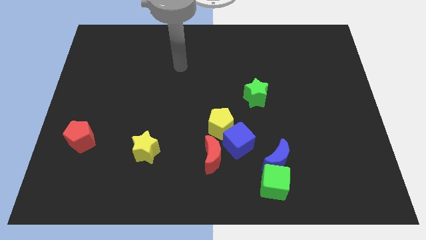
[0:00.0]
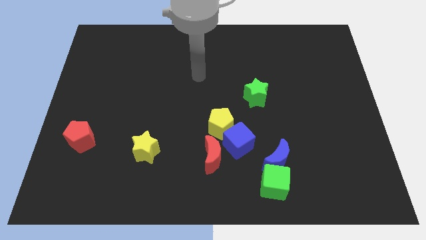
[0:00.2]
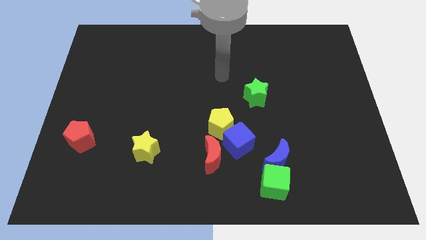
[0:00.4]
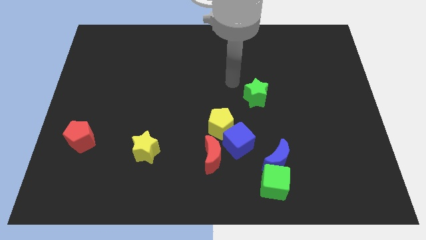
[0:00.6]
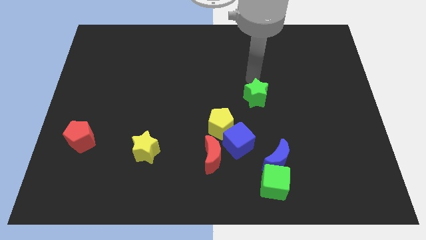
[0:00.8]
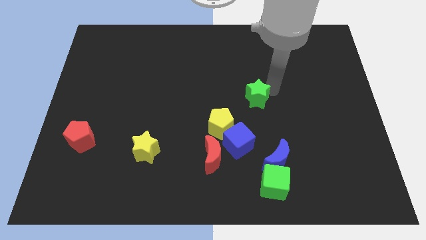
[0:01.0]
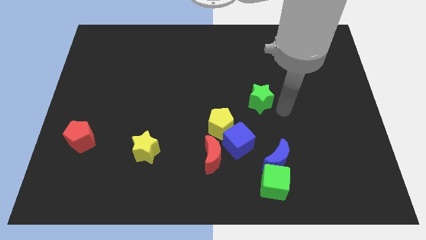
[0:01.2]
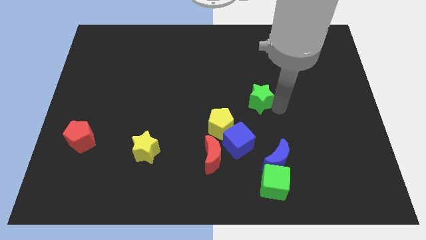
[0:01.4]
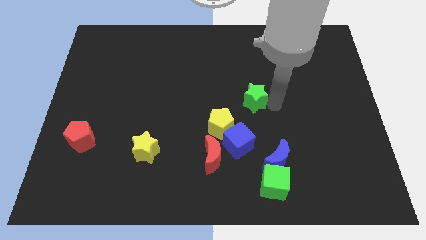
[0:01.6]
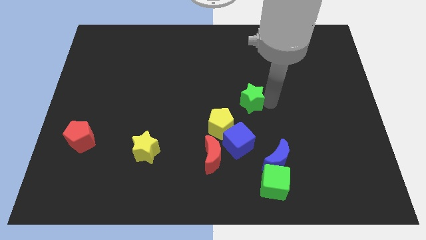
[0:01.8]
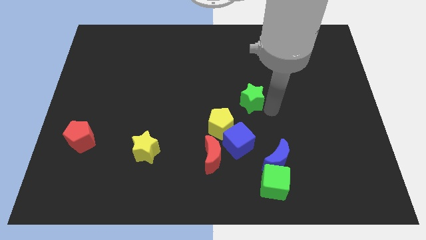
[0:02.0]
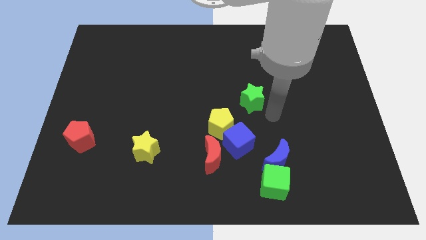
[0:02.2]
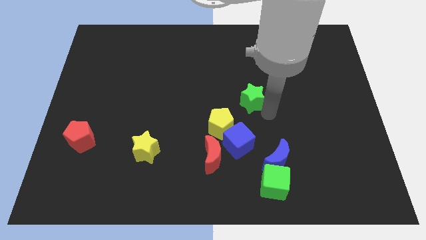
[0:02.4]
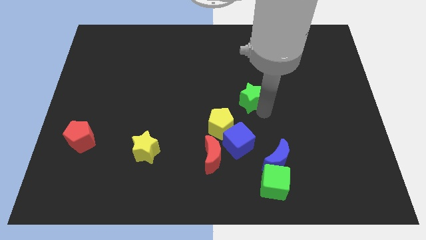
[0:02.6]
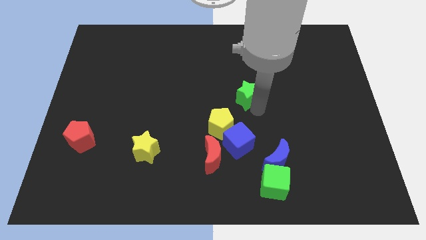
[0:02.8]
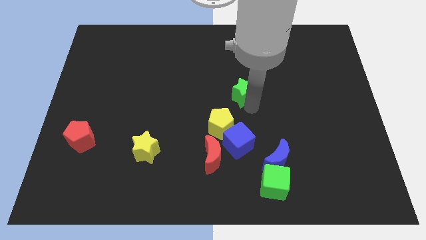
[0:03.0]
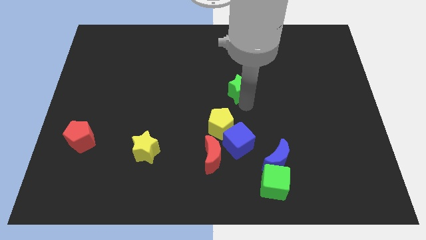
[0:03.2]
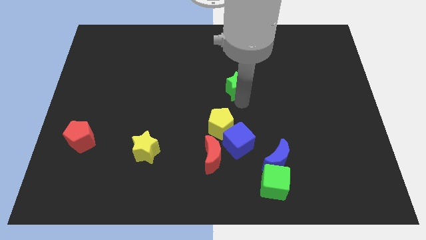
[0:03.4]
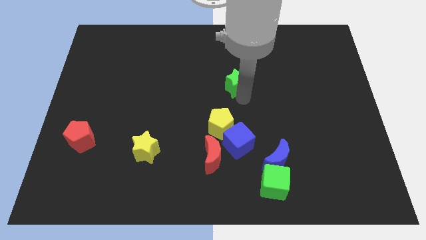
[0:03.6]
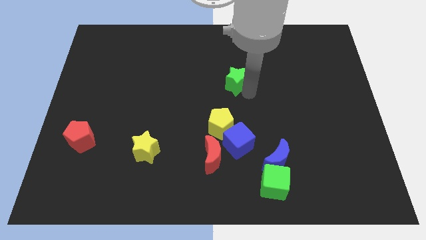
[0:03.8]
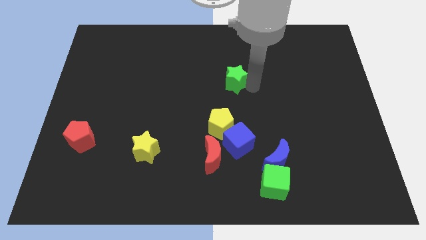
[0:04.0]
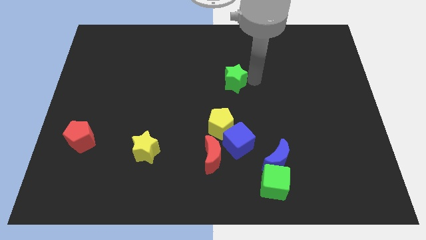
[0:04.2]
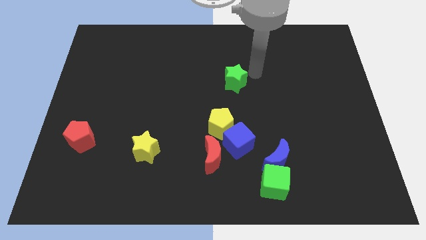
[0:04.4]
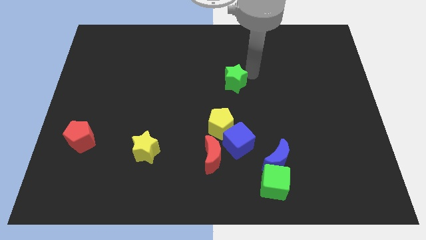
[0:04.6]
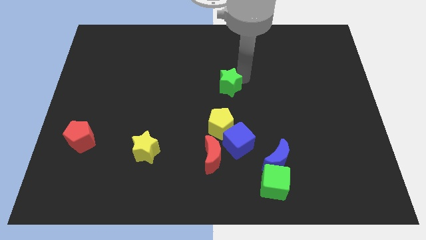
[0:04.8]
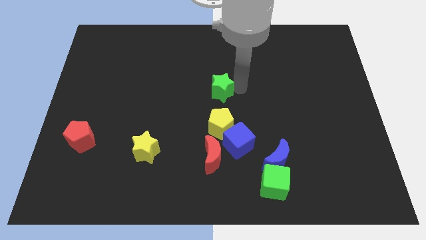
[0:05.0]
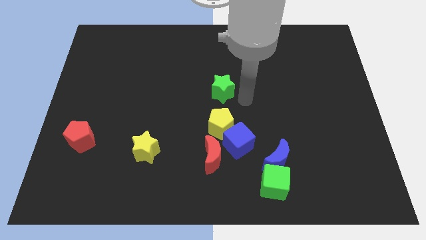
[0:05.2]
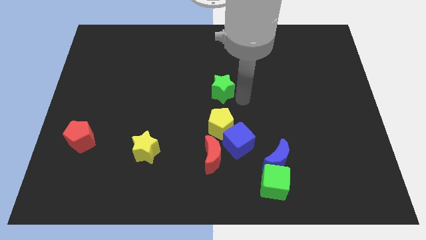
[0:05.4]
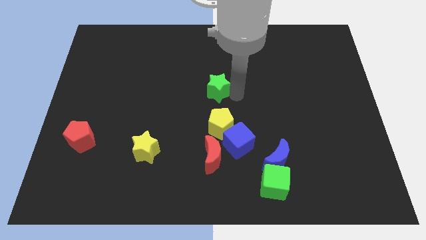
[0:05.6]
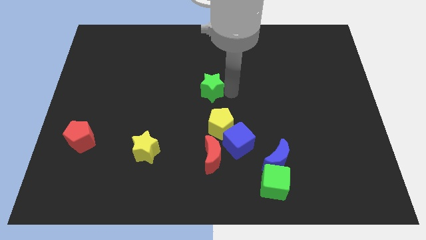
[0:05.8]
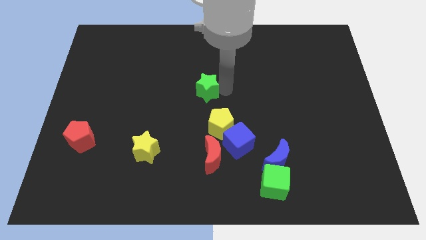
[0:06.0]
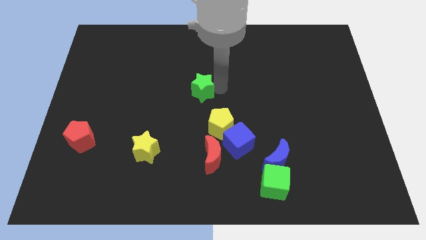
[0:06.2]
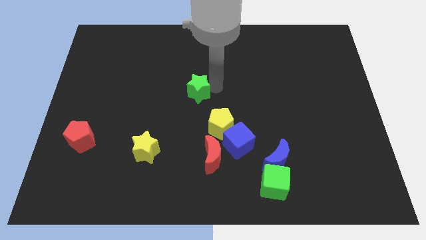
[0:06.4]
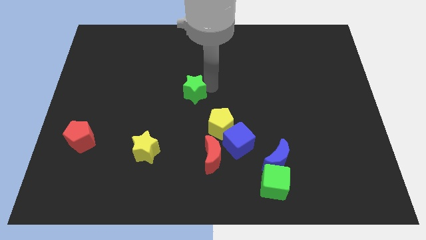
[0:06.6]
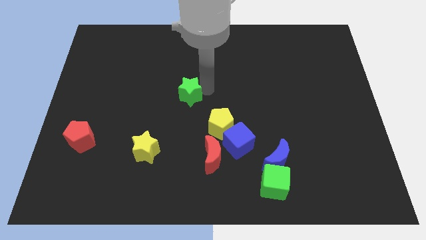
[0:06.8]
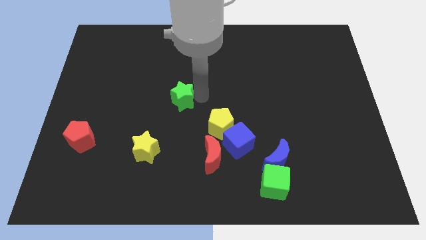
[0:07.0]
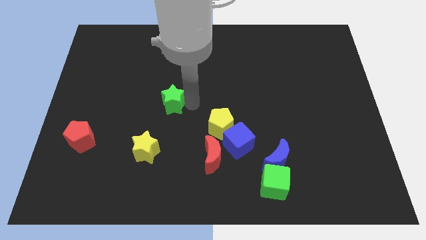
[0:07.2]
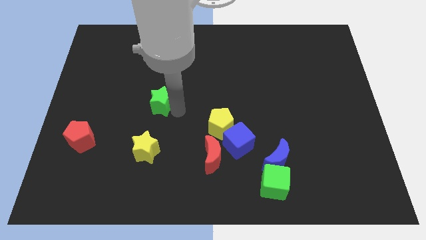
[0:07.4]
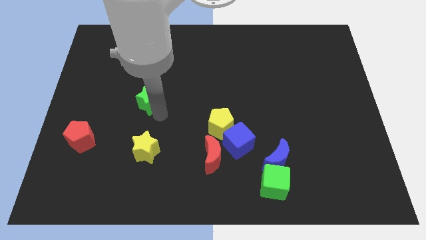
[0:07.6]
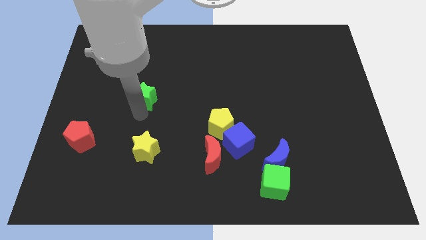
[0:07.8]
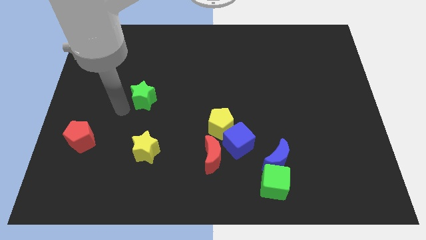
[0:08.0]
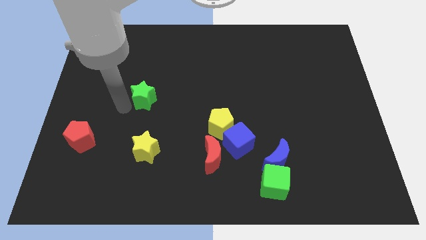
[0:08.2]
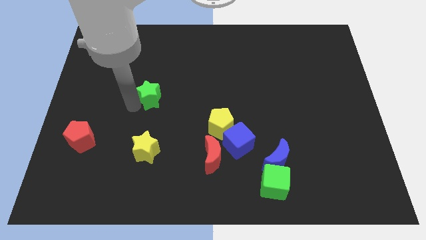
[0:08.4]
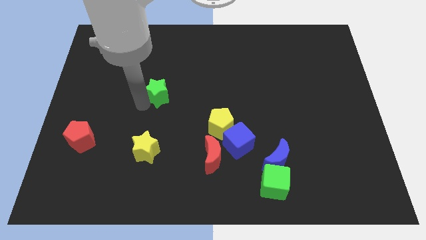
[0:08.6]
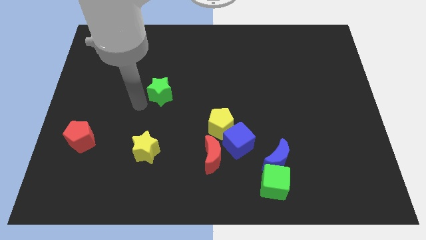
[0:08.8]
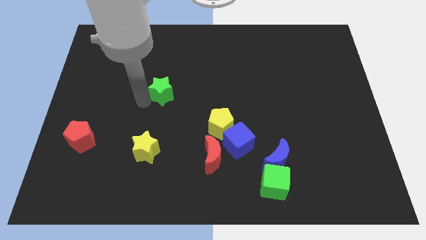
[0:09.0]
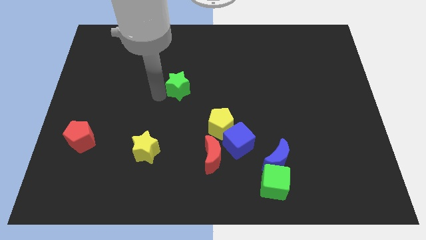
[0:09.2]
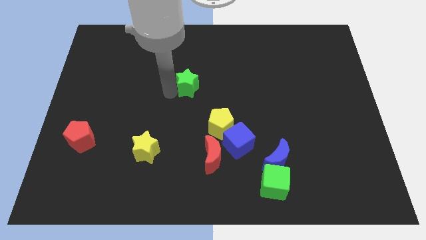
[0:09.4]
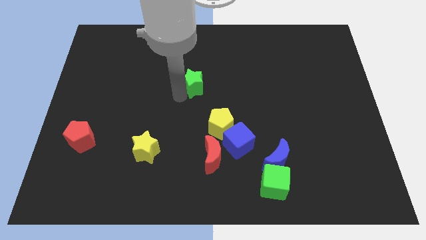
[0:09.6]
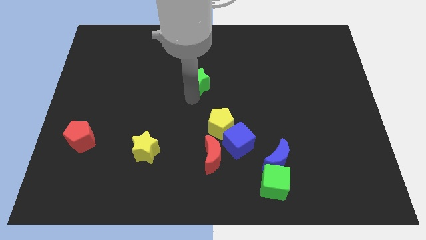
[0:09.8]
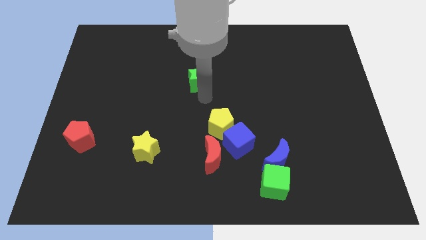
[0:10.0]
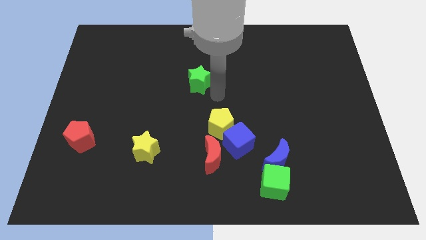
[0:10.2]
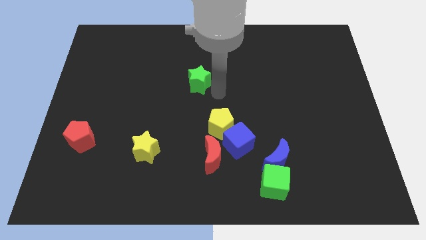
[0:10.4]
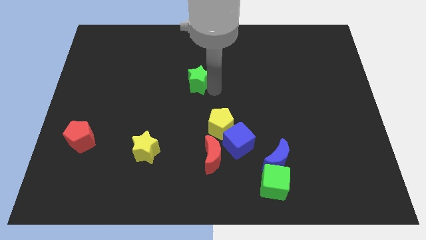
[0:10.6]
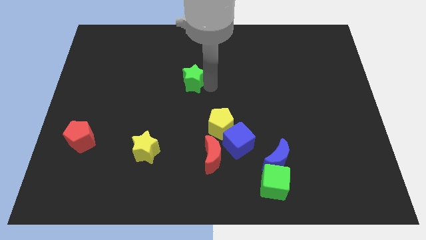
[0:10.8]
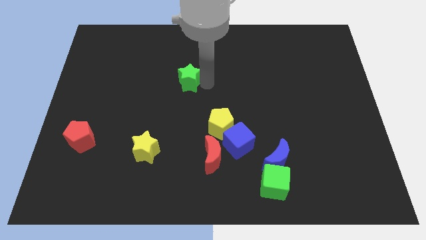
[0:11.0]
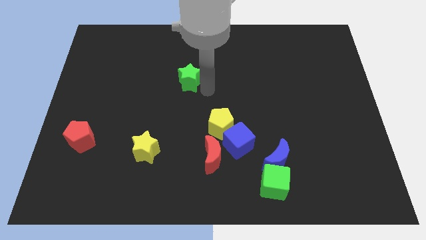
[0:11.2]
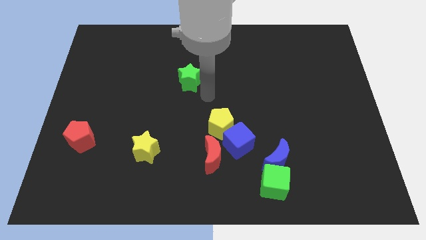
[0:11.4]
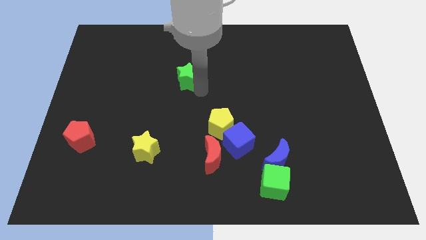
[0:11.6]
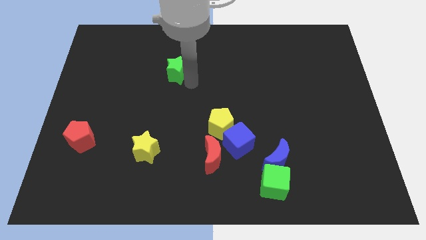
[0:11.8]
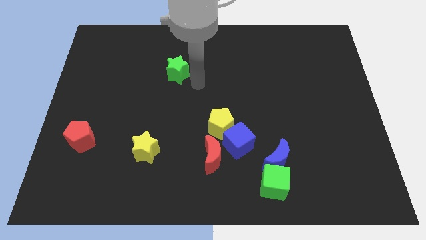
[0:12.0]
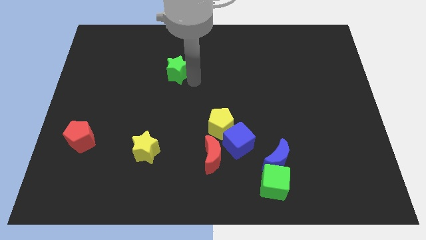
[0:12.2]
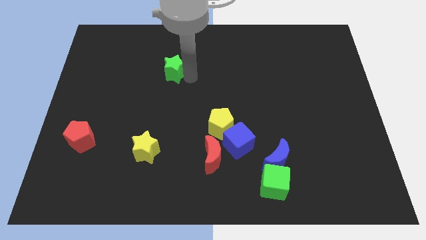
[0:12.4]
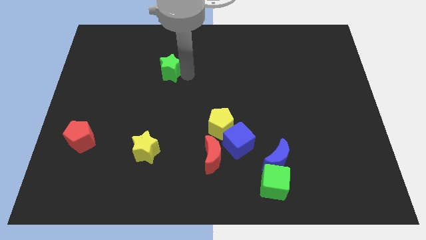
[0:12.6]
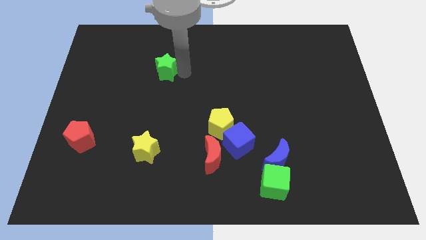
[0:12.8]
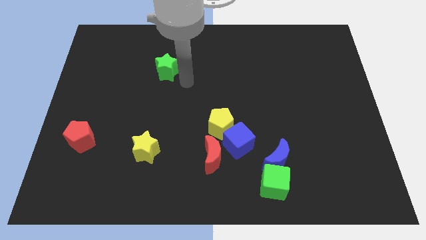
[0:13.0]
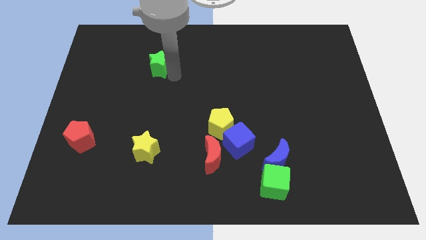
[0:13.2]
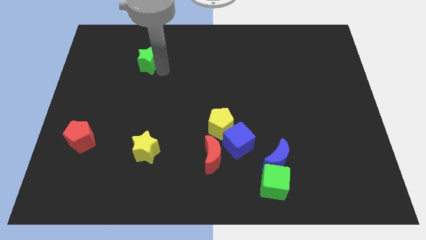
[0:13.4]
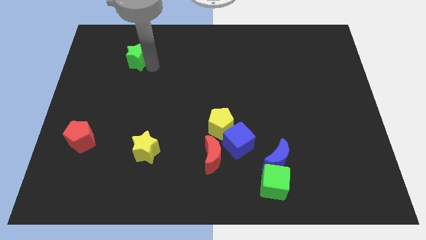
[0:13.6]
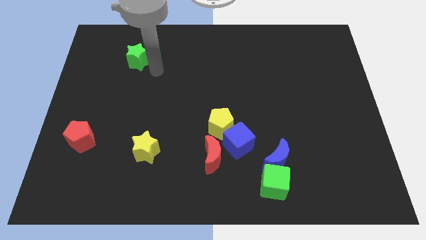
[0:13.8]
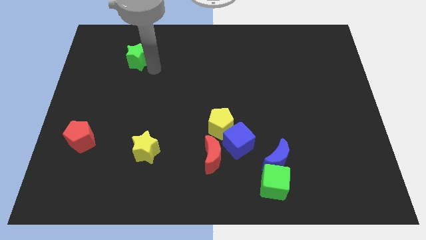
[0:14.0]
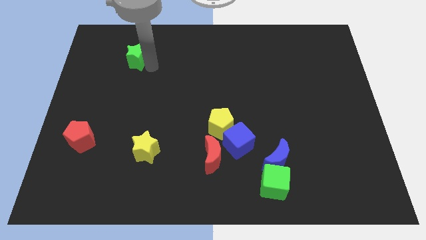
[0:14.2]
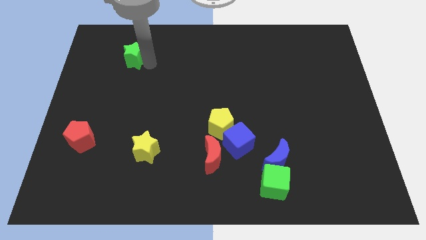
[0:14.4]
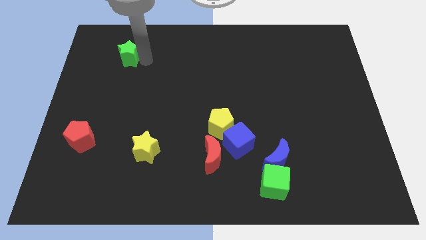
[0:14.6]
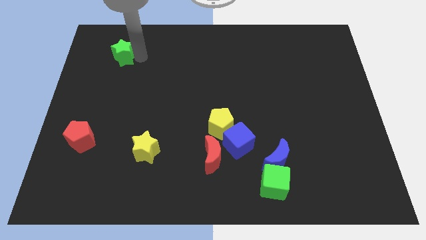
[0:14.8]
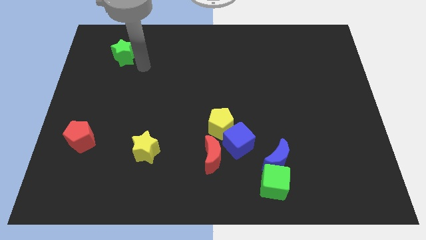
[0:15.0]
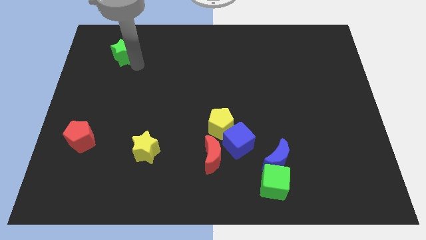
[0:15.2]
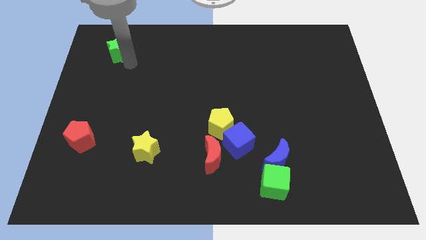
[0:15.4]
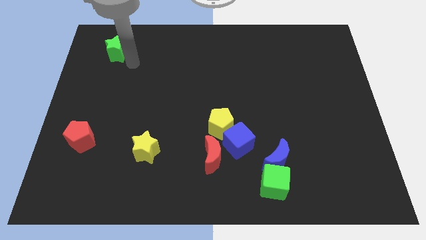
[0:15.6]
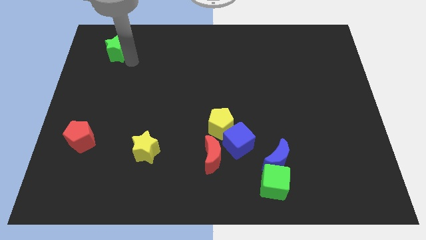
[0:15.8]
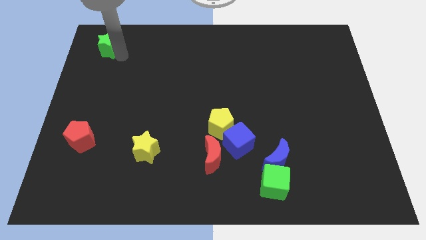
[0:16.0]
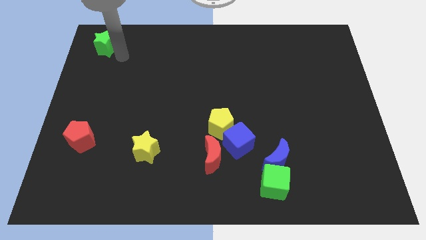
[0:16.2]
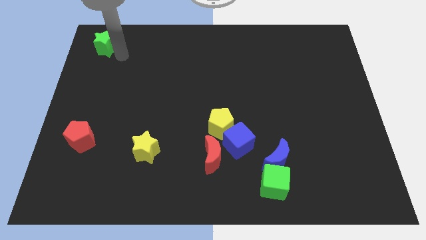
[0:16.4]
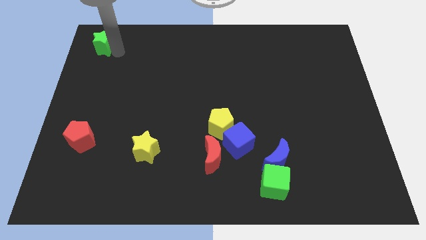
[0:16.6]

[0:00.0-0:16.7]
move the green star to the top left
